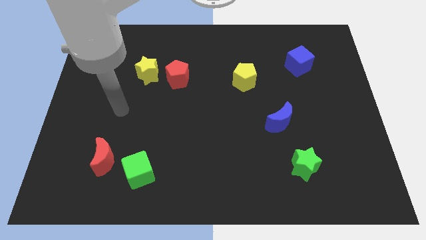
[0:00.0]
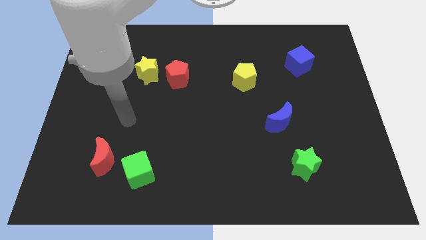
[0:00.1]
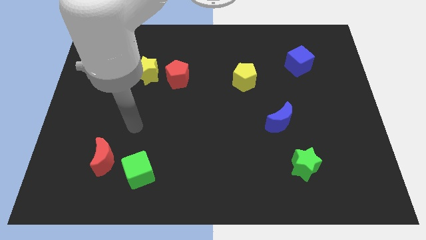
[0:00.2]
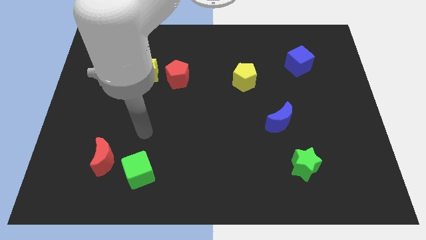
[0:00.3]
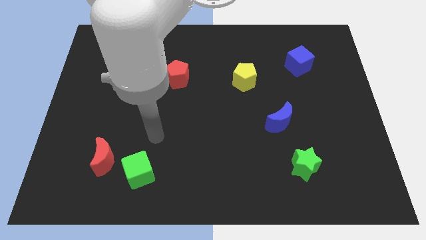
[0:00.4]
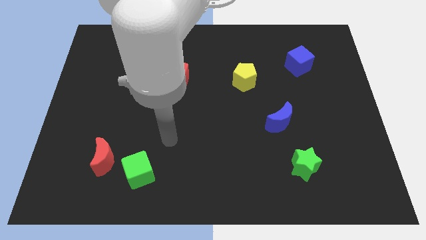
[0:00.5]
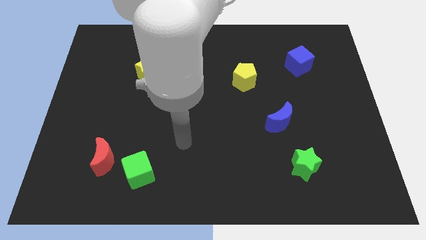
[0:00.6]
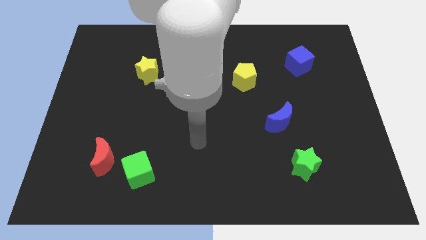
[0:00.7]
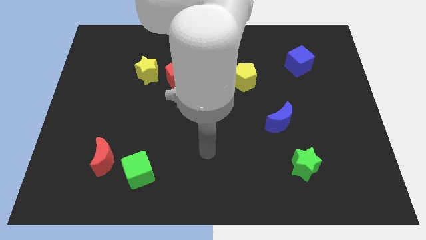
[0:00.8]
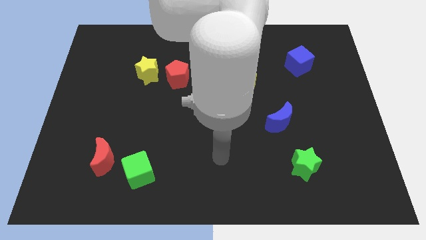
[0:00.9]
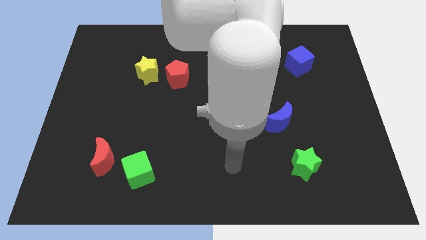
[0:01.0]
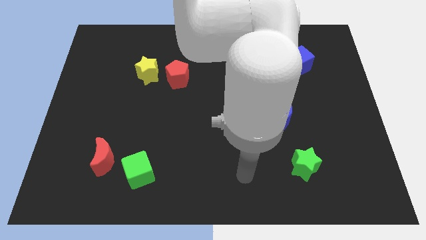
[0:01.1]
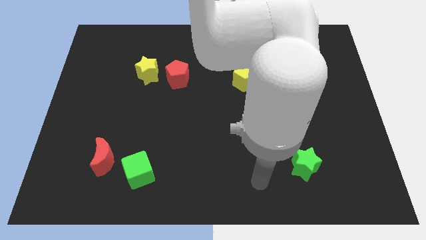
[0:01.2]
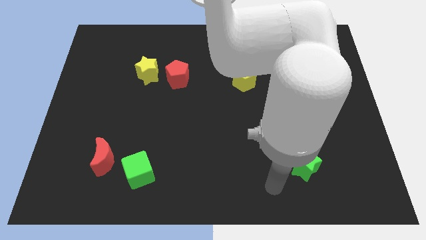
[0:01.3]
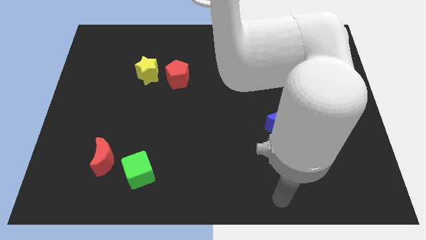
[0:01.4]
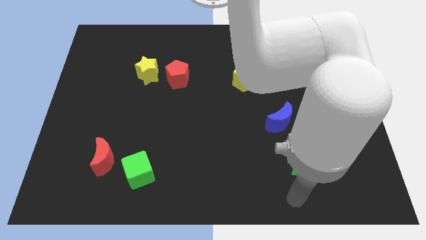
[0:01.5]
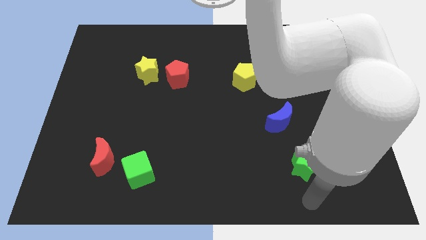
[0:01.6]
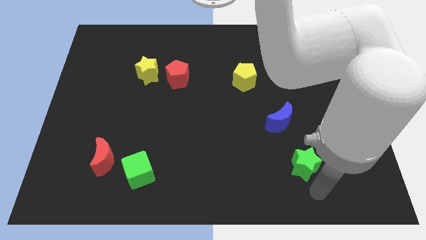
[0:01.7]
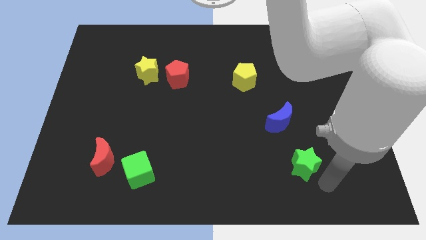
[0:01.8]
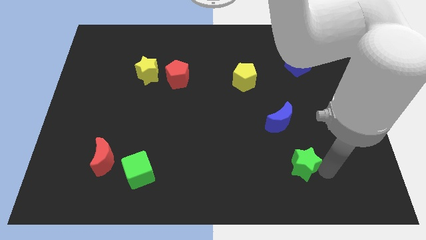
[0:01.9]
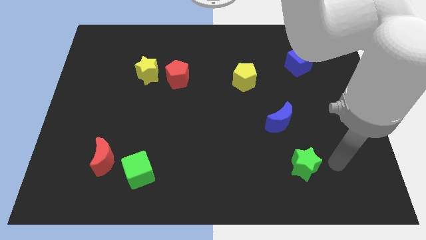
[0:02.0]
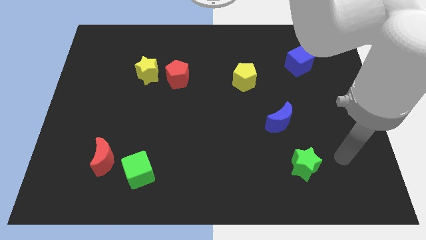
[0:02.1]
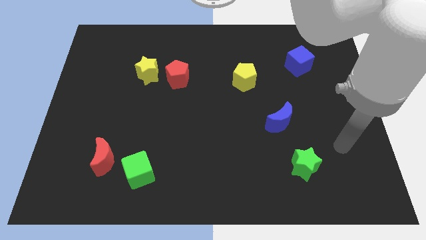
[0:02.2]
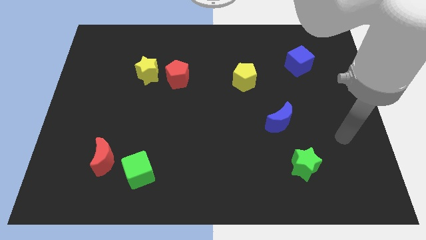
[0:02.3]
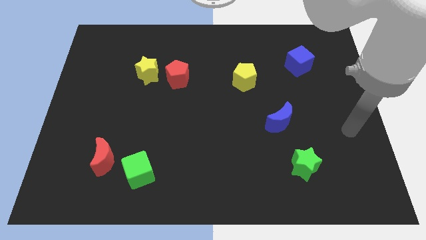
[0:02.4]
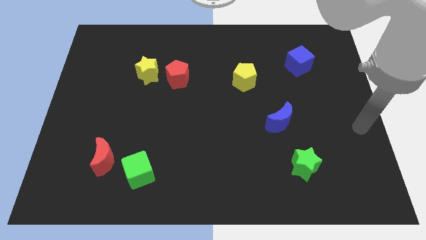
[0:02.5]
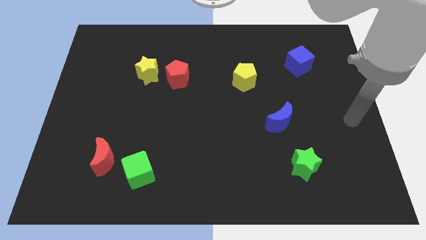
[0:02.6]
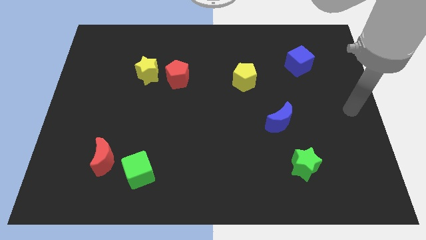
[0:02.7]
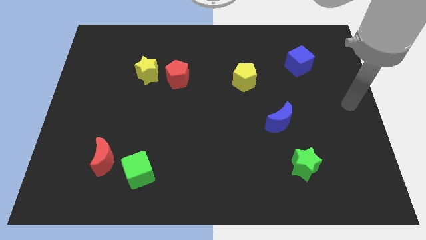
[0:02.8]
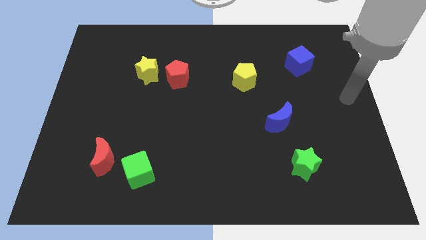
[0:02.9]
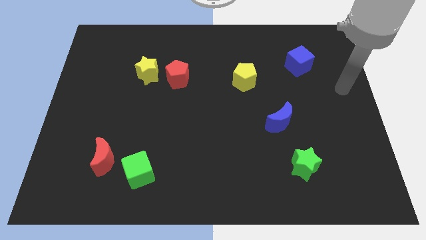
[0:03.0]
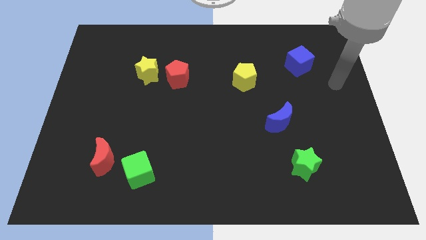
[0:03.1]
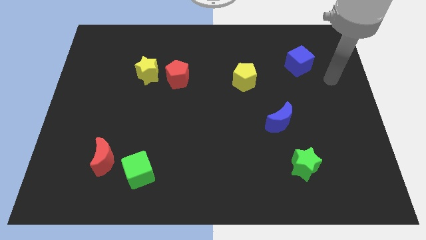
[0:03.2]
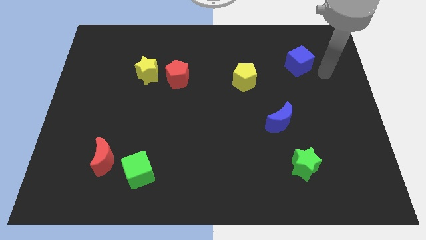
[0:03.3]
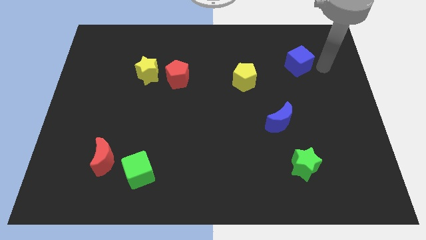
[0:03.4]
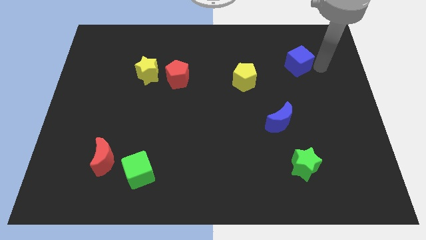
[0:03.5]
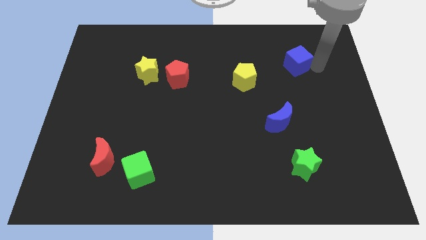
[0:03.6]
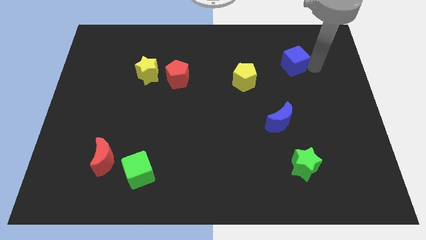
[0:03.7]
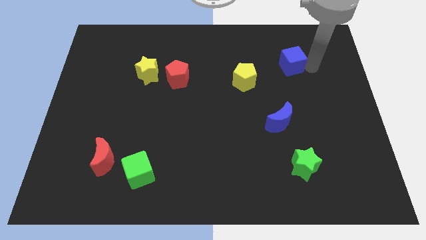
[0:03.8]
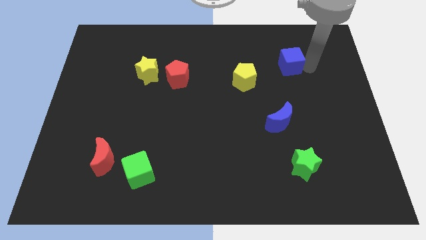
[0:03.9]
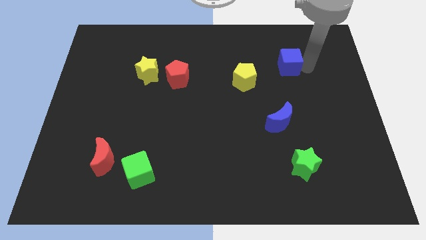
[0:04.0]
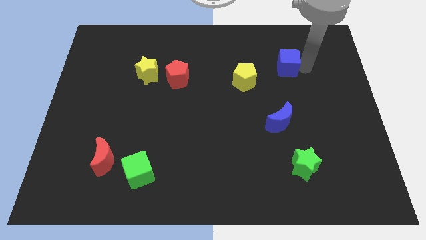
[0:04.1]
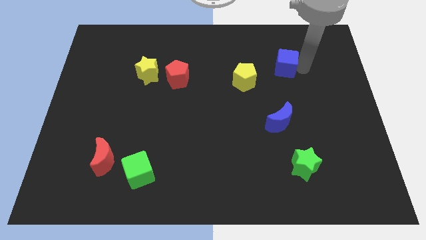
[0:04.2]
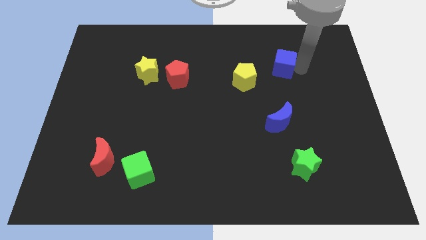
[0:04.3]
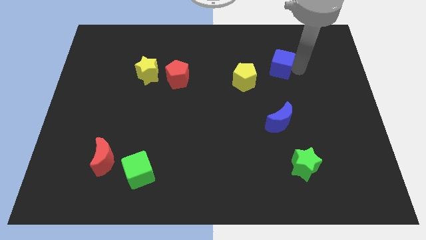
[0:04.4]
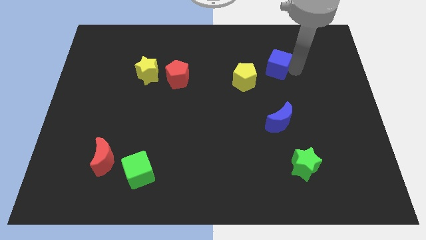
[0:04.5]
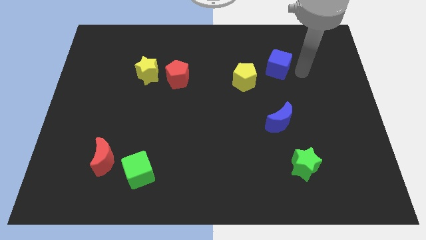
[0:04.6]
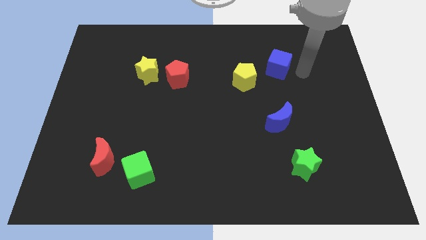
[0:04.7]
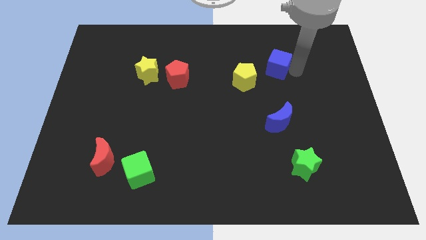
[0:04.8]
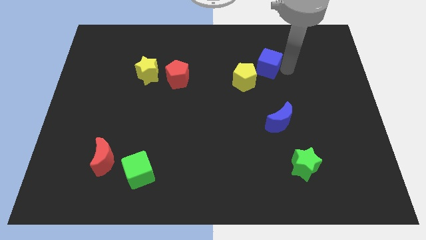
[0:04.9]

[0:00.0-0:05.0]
push the blue cube left a little

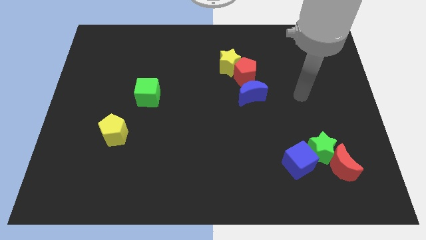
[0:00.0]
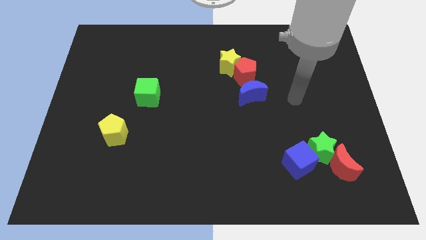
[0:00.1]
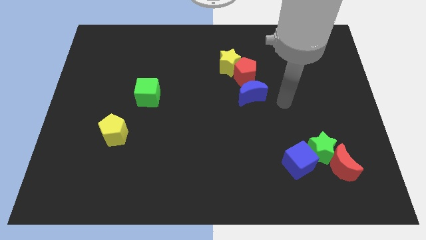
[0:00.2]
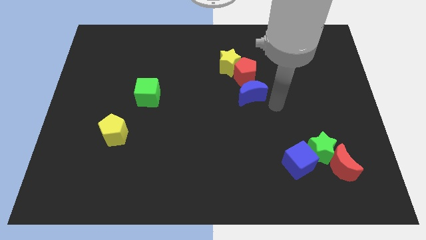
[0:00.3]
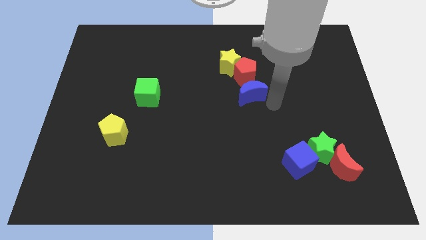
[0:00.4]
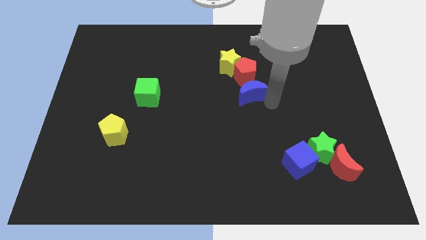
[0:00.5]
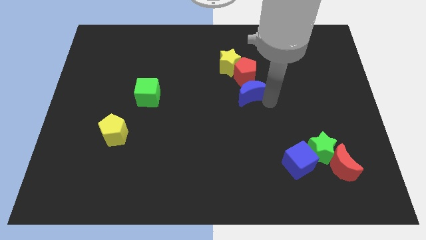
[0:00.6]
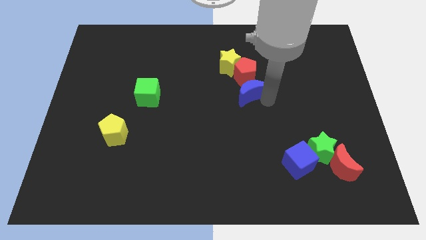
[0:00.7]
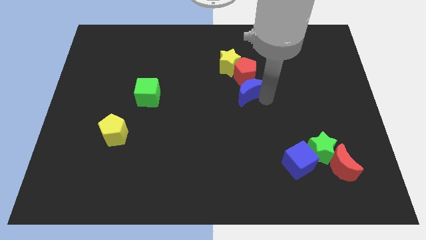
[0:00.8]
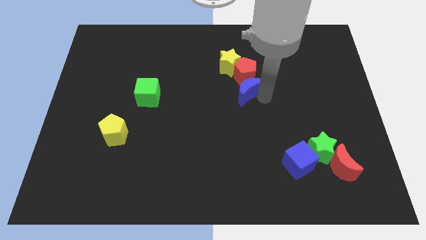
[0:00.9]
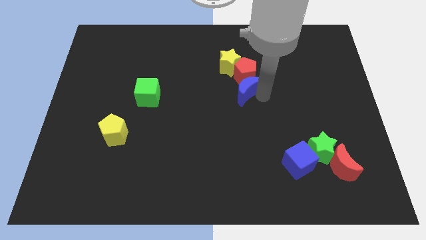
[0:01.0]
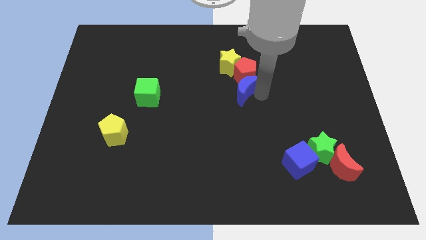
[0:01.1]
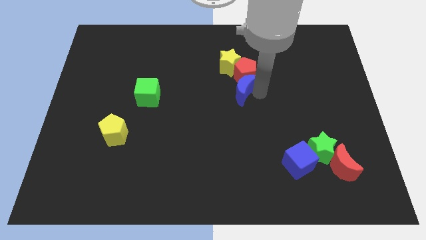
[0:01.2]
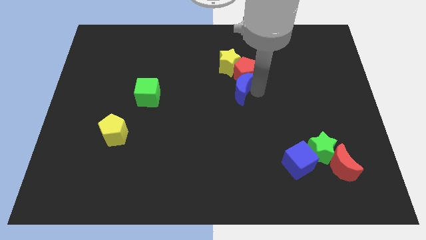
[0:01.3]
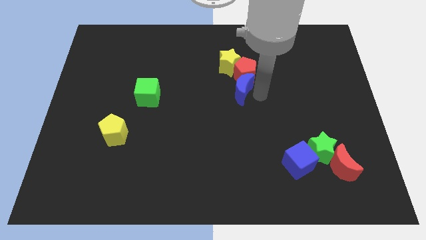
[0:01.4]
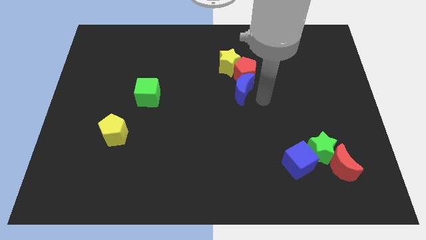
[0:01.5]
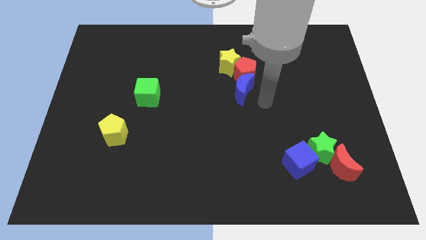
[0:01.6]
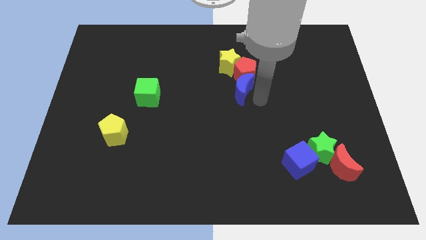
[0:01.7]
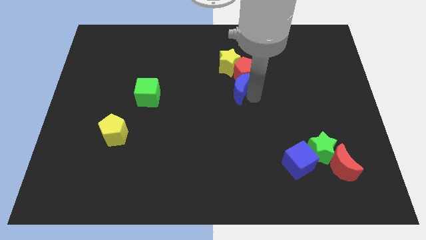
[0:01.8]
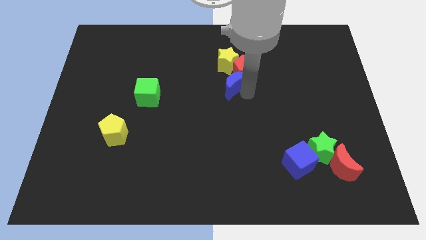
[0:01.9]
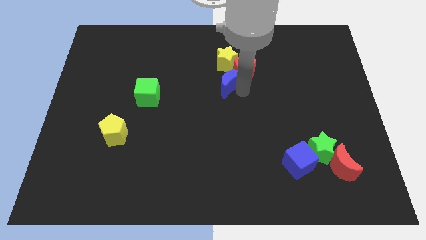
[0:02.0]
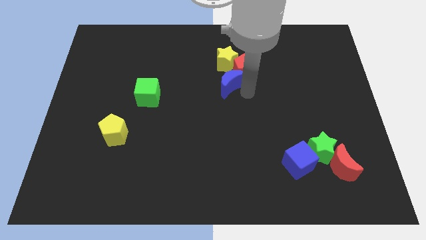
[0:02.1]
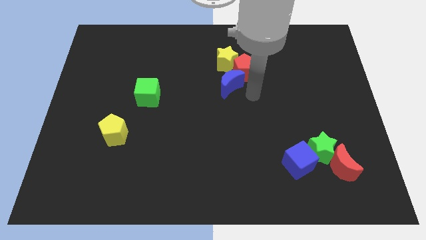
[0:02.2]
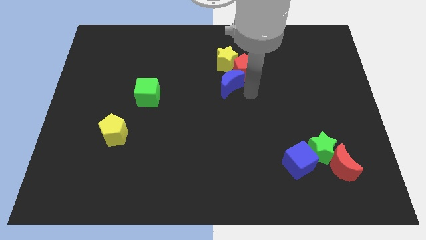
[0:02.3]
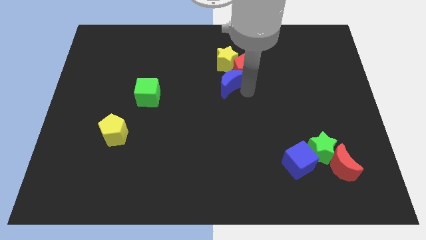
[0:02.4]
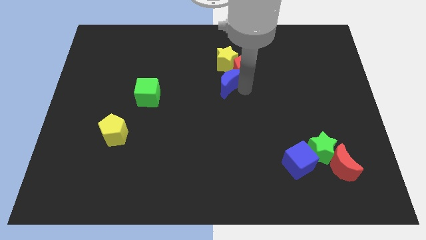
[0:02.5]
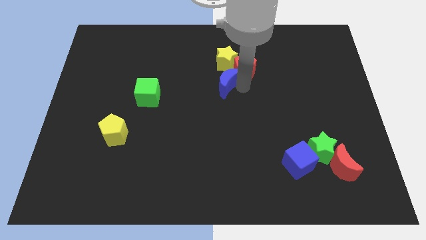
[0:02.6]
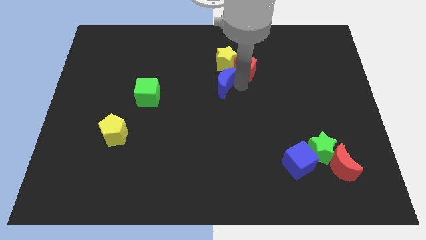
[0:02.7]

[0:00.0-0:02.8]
slightly move the blue moon upwards and then to the left
